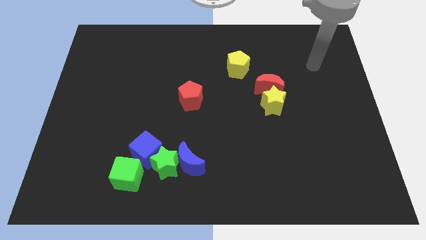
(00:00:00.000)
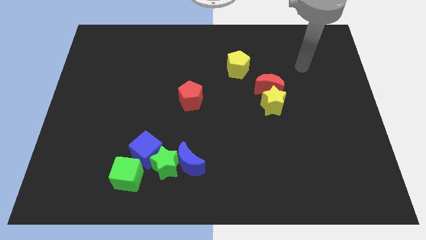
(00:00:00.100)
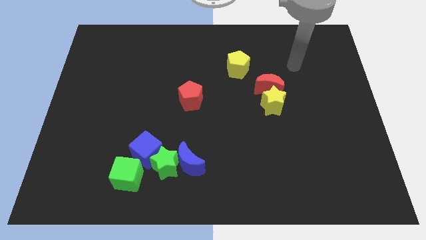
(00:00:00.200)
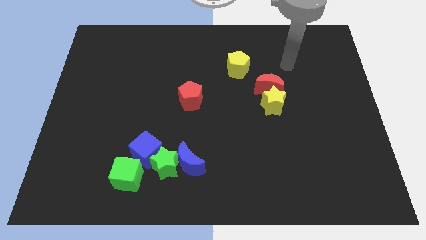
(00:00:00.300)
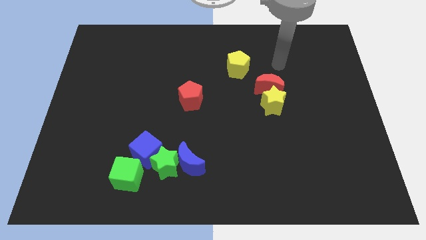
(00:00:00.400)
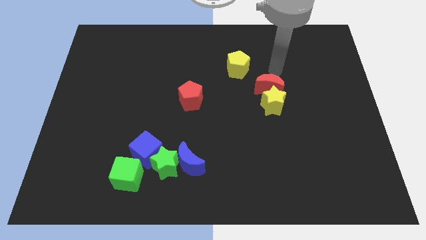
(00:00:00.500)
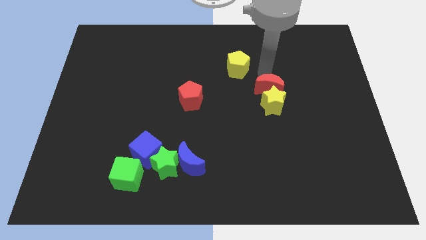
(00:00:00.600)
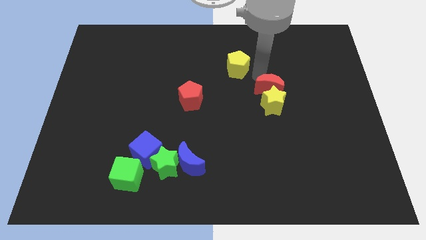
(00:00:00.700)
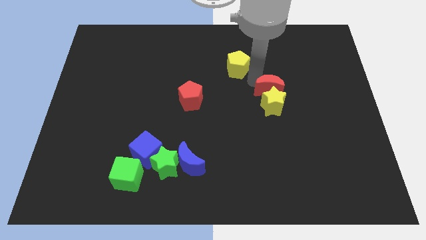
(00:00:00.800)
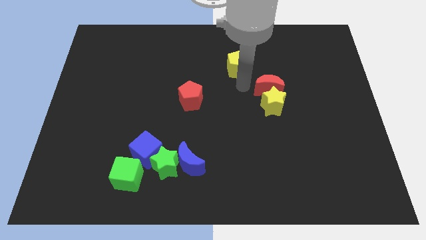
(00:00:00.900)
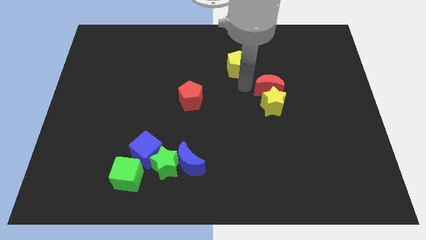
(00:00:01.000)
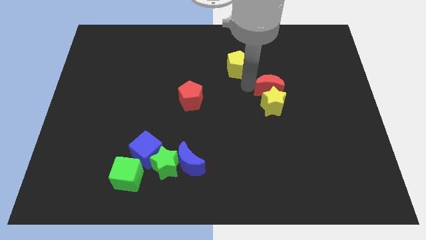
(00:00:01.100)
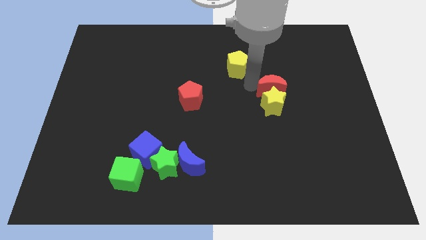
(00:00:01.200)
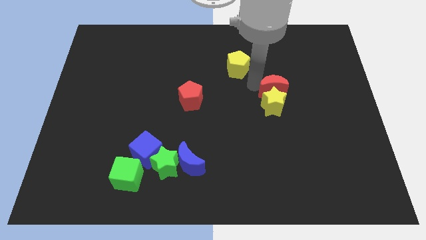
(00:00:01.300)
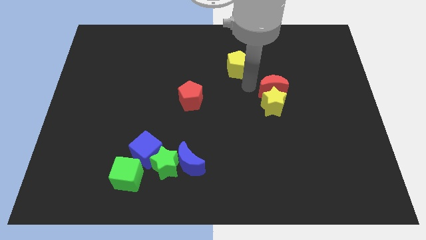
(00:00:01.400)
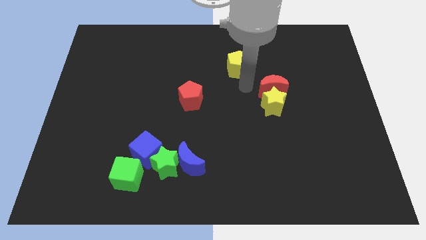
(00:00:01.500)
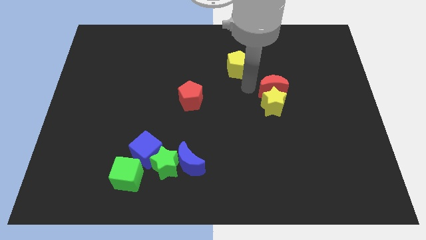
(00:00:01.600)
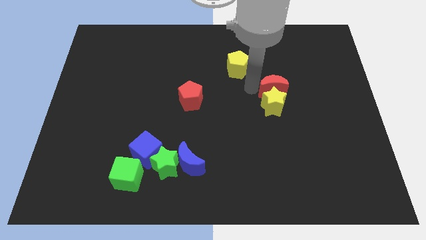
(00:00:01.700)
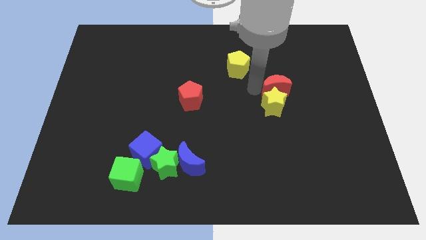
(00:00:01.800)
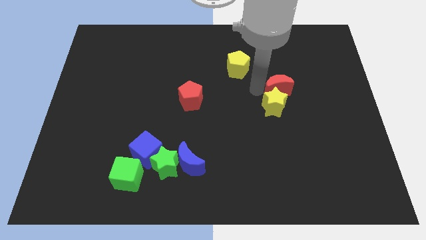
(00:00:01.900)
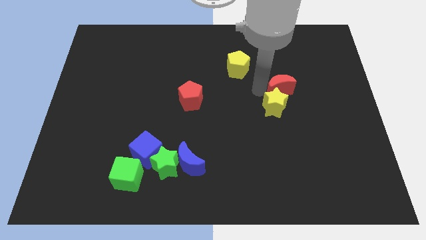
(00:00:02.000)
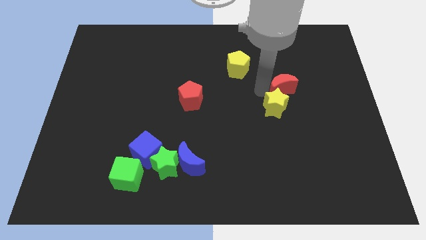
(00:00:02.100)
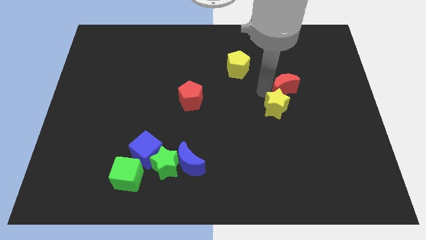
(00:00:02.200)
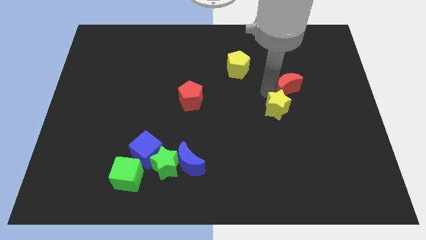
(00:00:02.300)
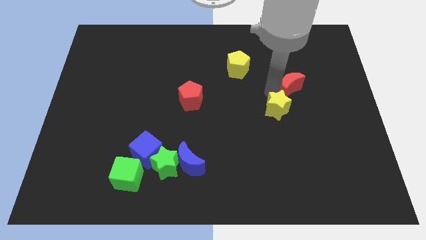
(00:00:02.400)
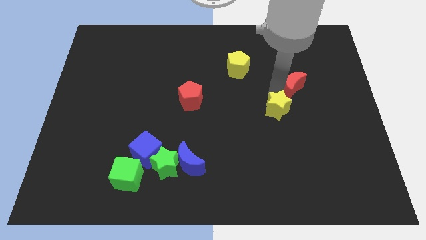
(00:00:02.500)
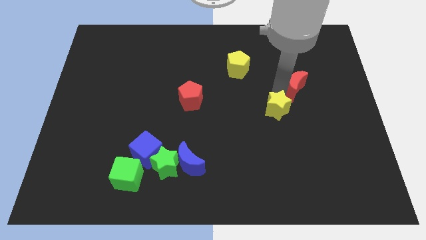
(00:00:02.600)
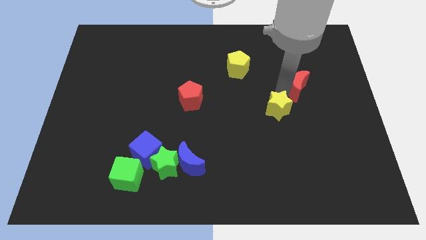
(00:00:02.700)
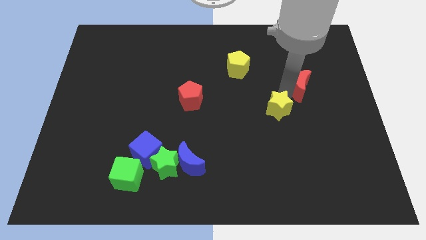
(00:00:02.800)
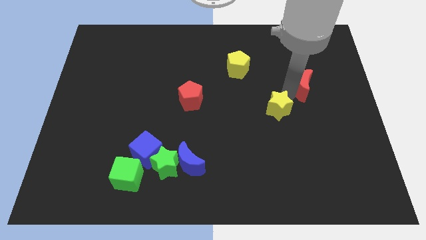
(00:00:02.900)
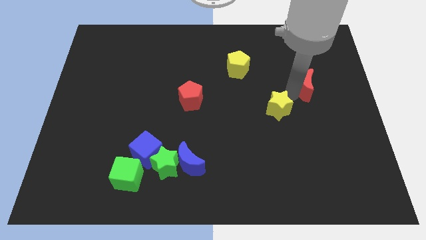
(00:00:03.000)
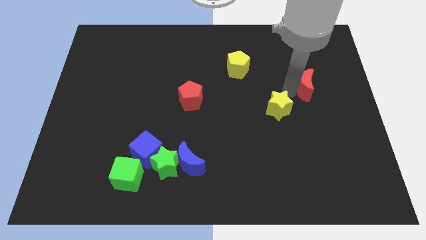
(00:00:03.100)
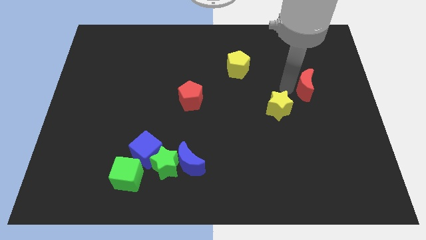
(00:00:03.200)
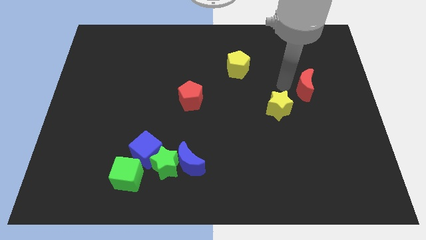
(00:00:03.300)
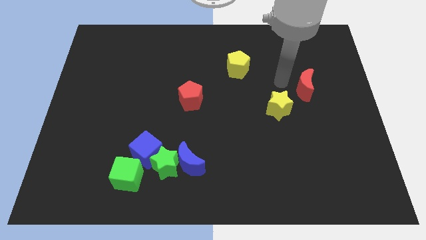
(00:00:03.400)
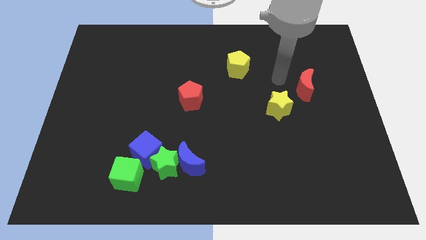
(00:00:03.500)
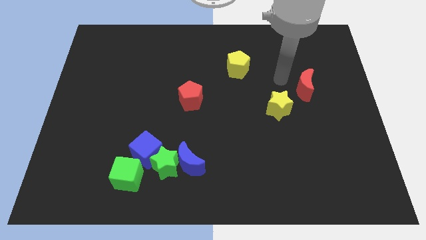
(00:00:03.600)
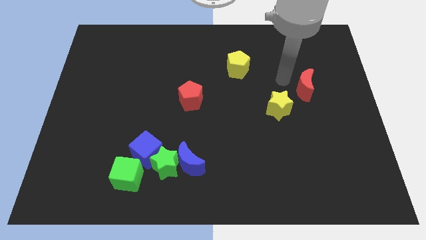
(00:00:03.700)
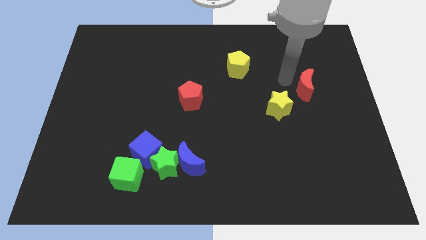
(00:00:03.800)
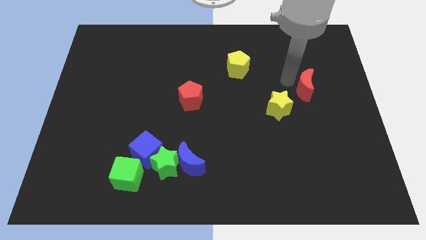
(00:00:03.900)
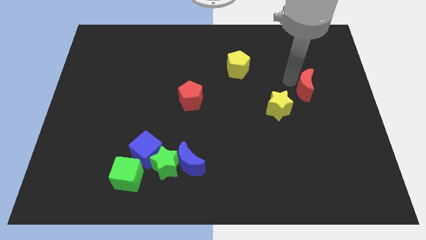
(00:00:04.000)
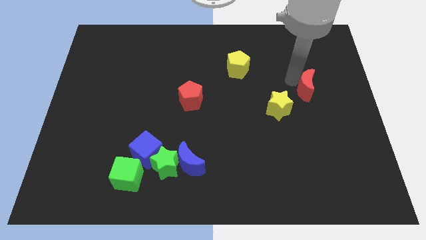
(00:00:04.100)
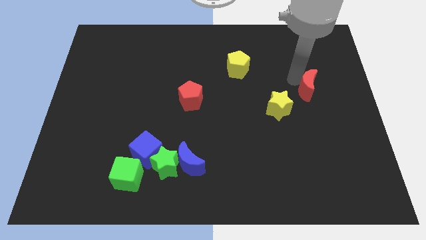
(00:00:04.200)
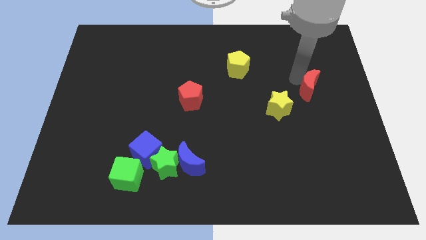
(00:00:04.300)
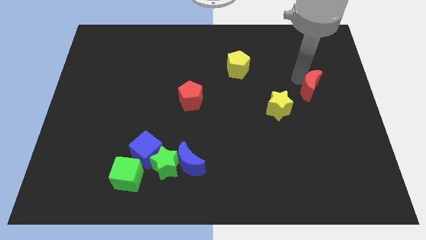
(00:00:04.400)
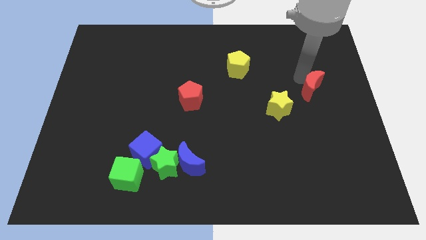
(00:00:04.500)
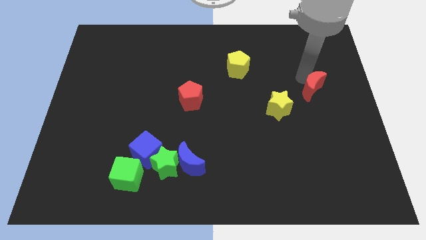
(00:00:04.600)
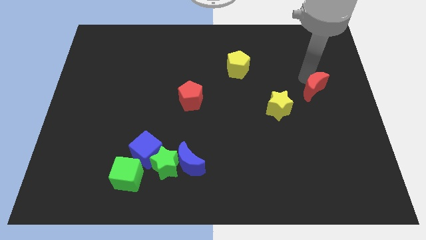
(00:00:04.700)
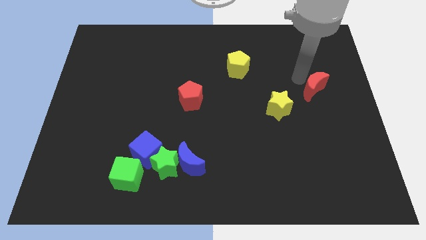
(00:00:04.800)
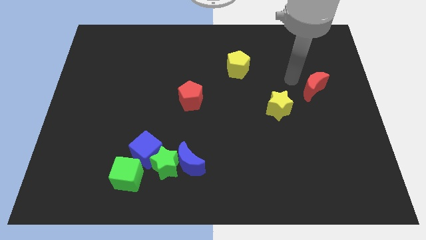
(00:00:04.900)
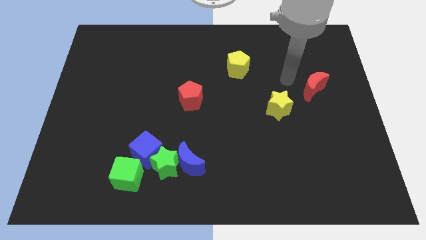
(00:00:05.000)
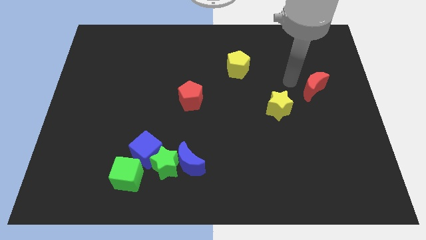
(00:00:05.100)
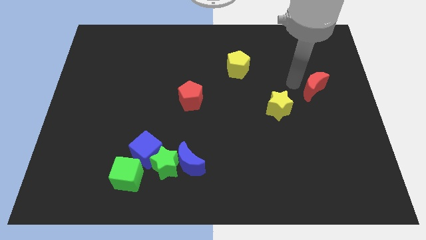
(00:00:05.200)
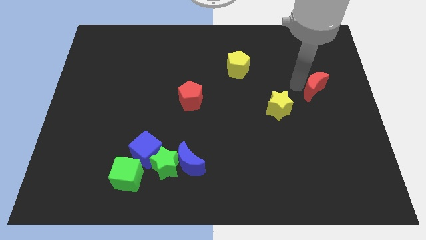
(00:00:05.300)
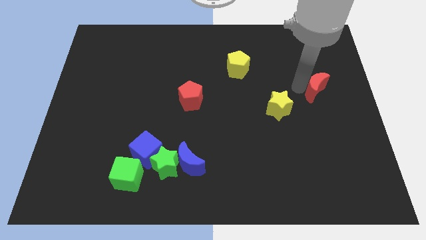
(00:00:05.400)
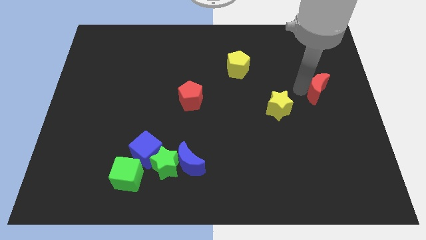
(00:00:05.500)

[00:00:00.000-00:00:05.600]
put the red moon to the right side

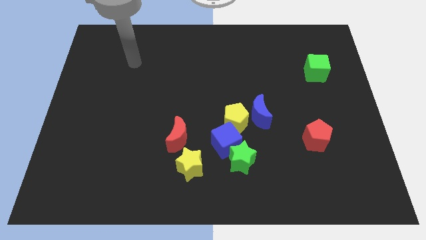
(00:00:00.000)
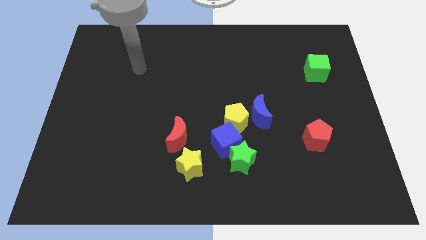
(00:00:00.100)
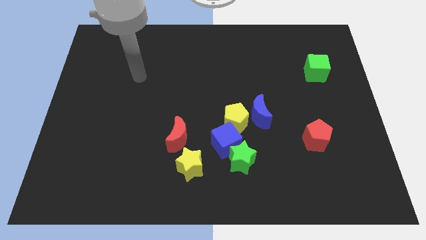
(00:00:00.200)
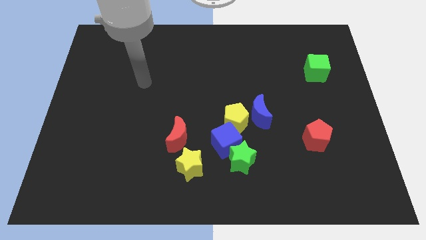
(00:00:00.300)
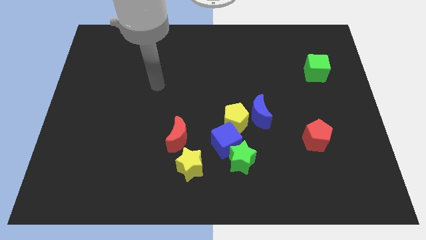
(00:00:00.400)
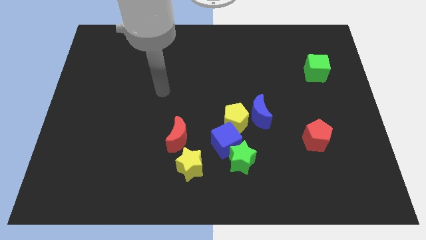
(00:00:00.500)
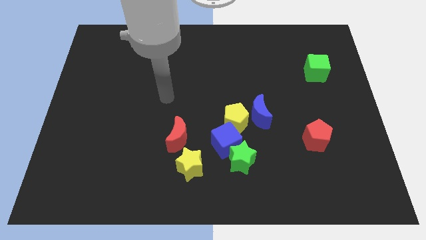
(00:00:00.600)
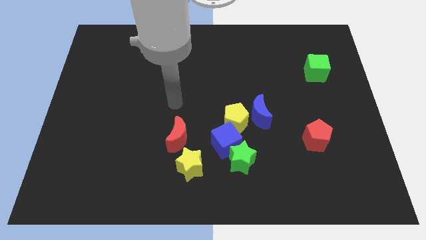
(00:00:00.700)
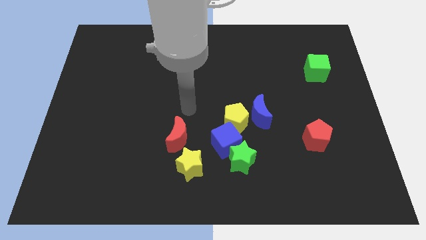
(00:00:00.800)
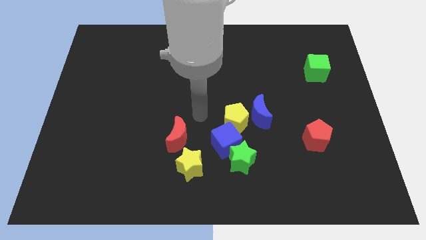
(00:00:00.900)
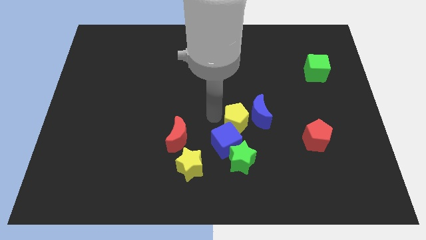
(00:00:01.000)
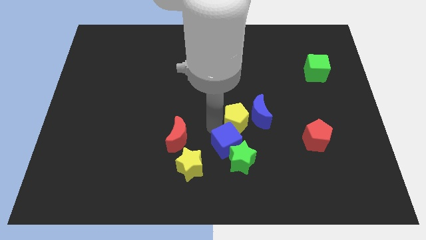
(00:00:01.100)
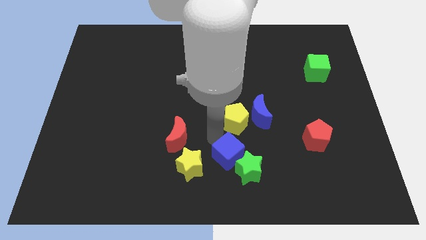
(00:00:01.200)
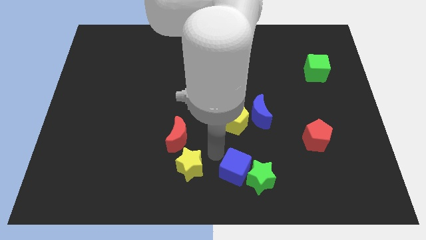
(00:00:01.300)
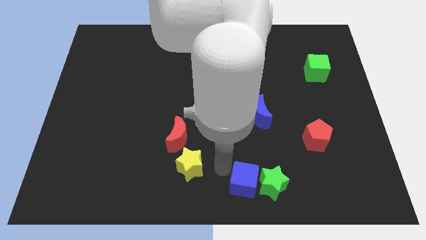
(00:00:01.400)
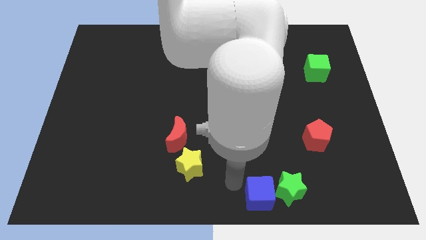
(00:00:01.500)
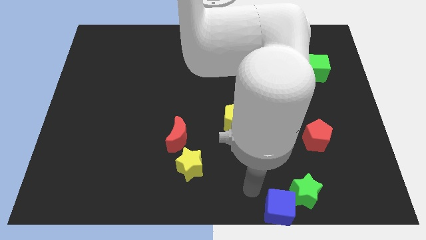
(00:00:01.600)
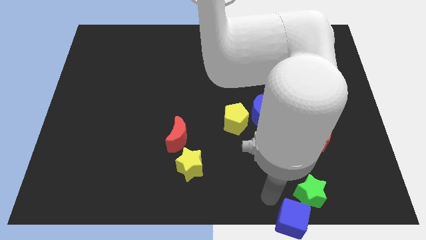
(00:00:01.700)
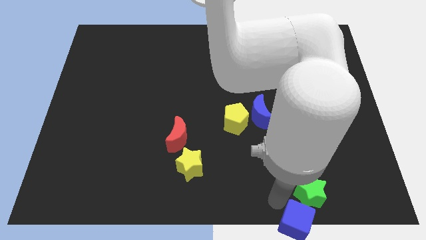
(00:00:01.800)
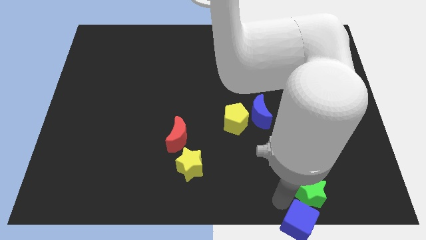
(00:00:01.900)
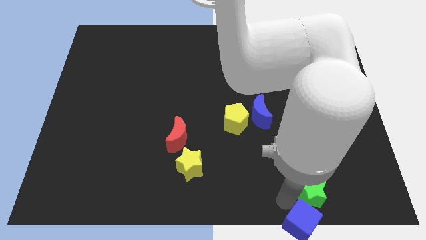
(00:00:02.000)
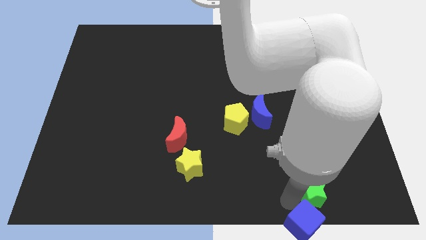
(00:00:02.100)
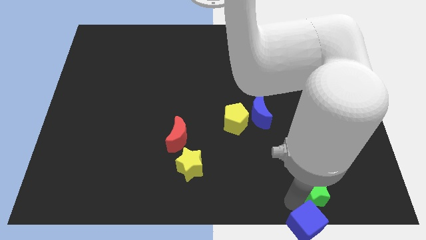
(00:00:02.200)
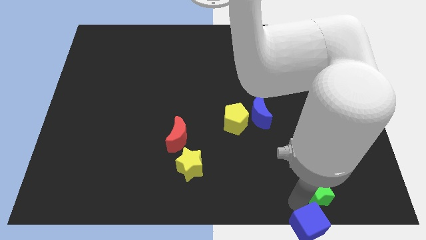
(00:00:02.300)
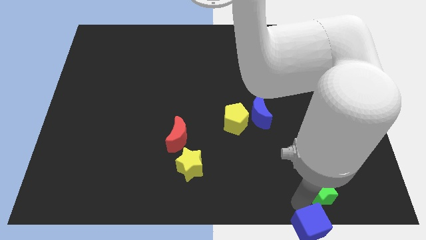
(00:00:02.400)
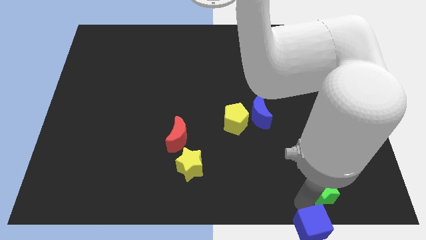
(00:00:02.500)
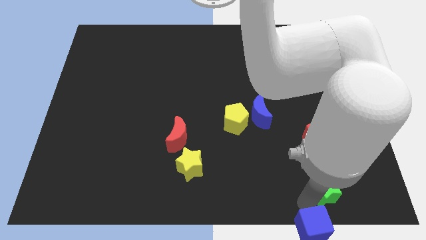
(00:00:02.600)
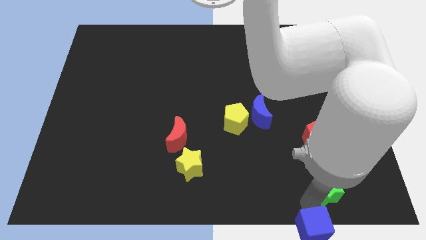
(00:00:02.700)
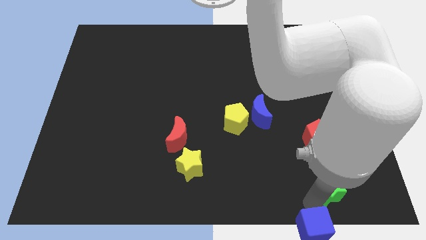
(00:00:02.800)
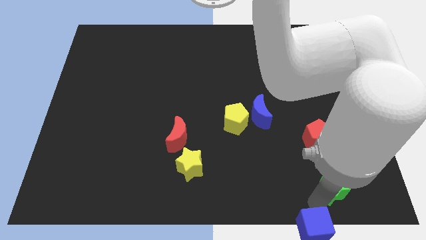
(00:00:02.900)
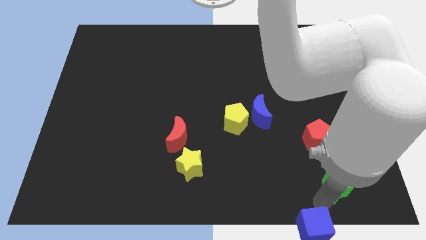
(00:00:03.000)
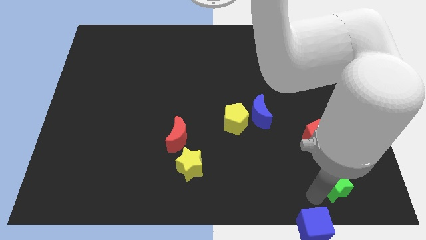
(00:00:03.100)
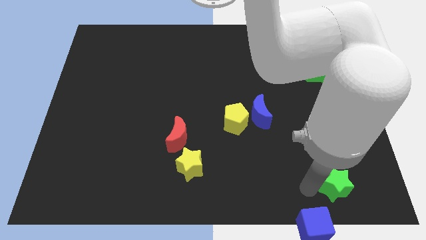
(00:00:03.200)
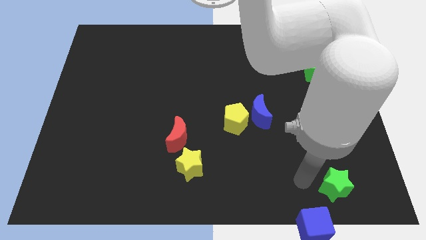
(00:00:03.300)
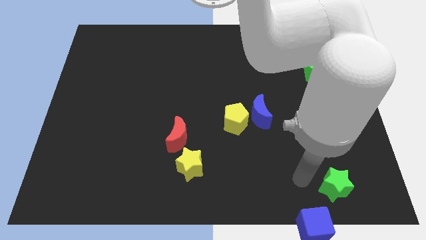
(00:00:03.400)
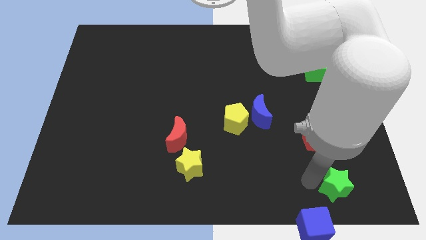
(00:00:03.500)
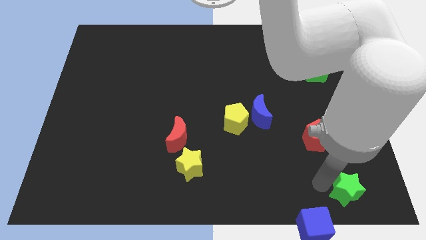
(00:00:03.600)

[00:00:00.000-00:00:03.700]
move the green star to the bottom right corner
